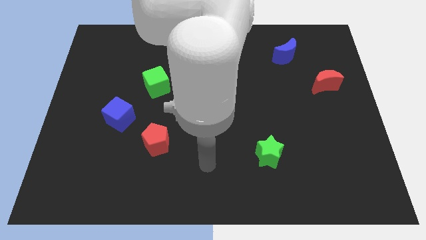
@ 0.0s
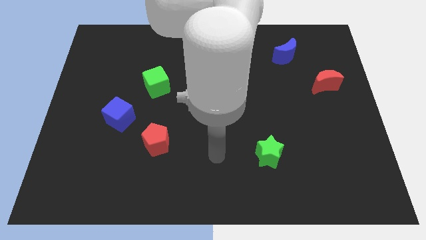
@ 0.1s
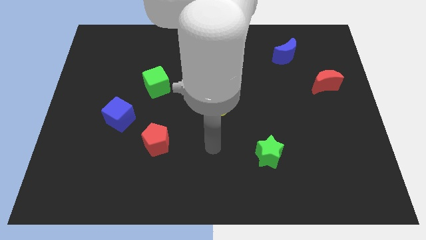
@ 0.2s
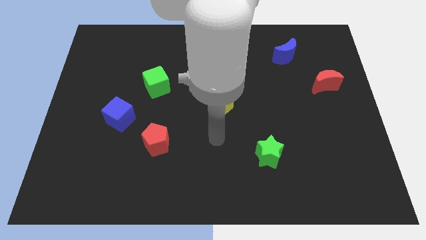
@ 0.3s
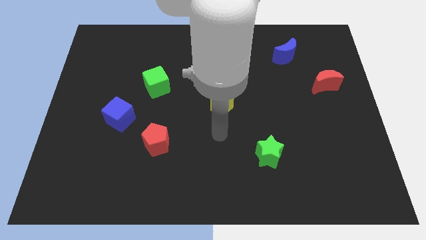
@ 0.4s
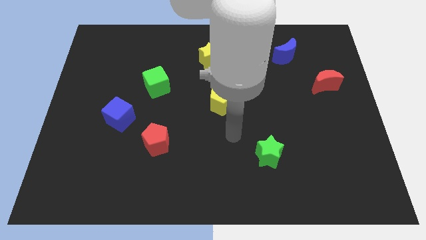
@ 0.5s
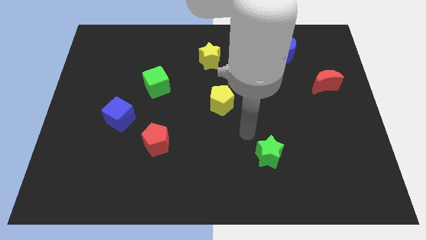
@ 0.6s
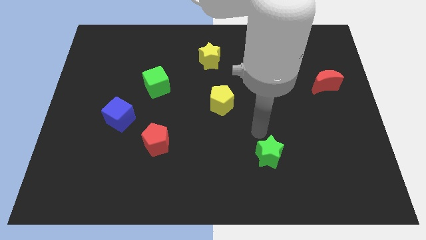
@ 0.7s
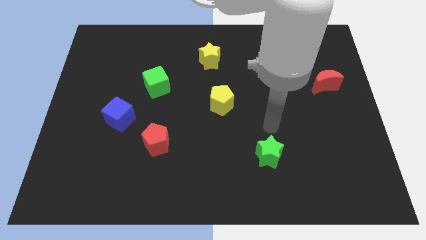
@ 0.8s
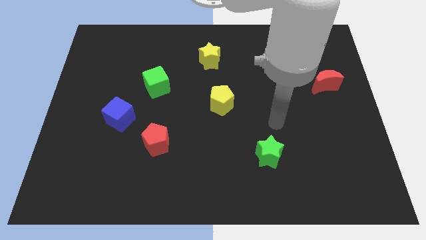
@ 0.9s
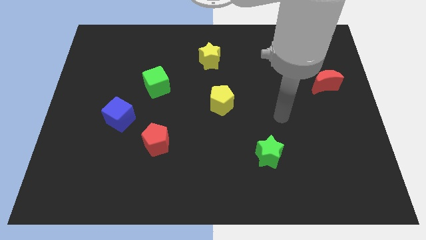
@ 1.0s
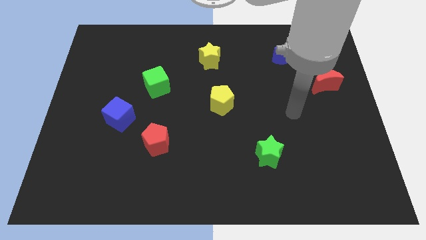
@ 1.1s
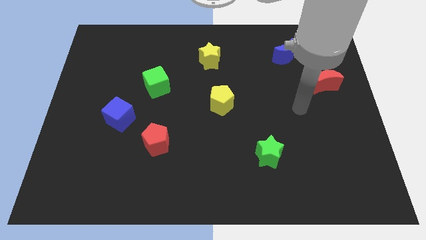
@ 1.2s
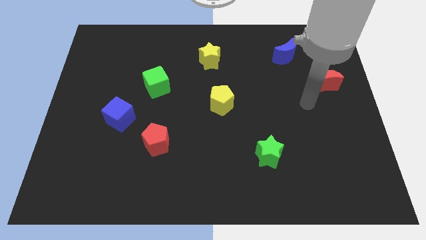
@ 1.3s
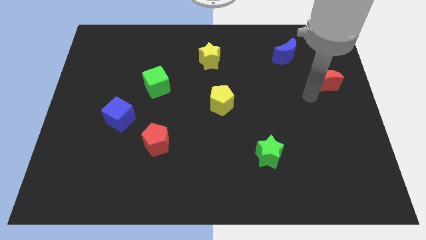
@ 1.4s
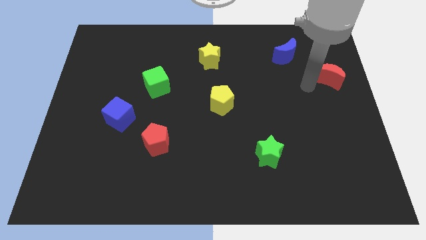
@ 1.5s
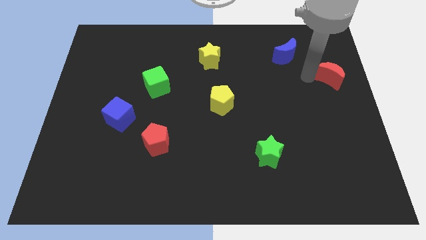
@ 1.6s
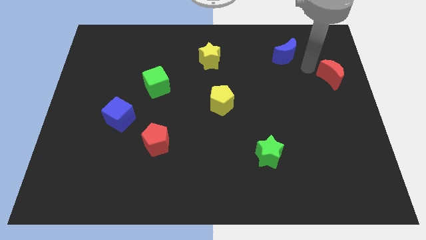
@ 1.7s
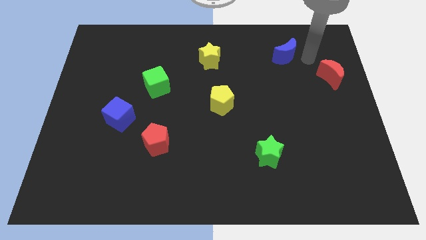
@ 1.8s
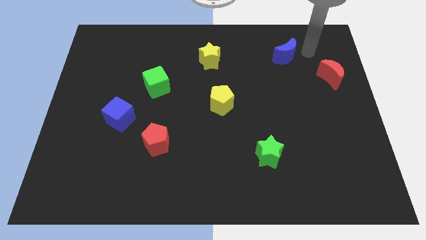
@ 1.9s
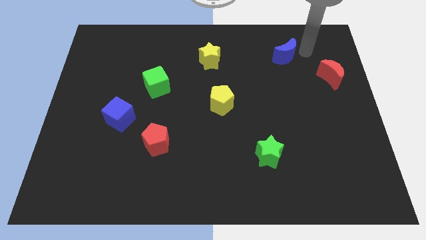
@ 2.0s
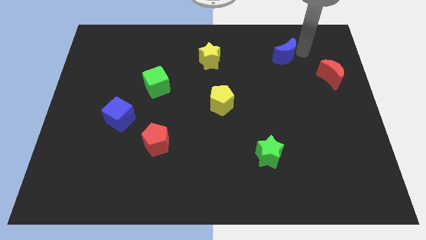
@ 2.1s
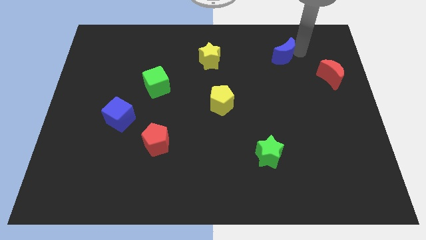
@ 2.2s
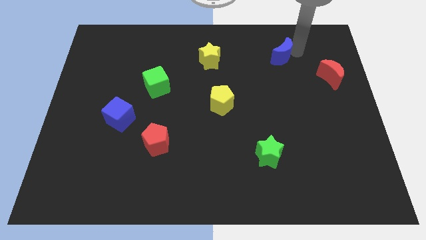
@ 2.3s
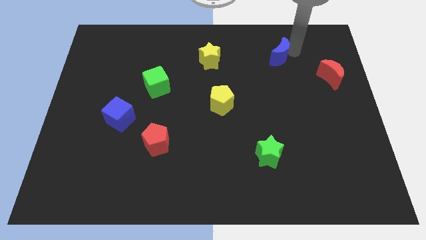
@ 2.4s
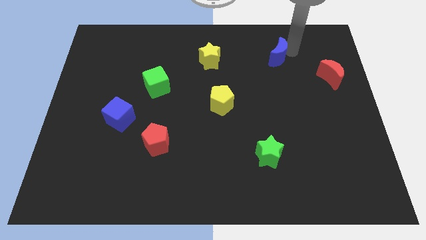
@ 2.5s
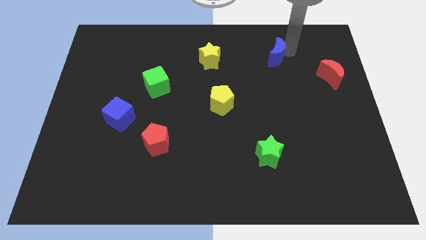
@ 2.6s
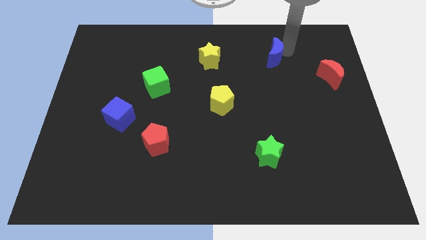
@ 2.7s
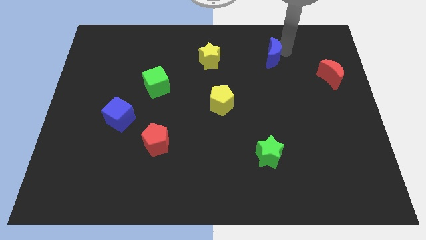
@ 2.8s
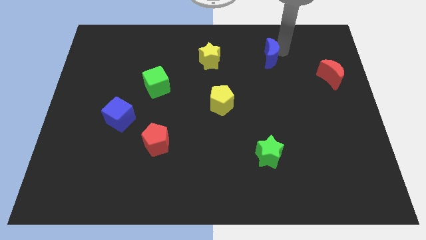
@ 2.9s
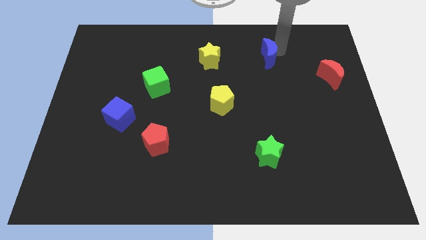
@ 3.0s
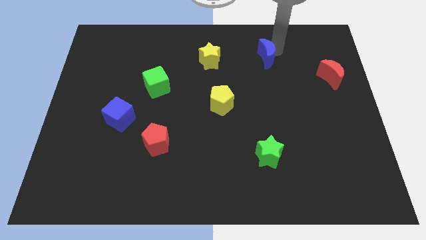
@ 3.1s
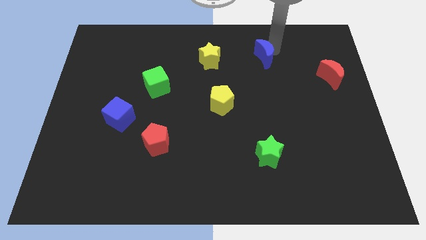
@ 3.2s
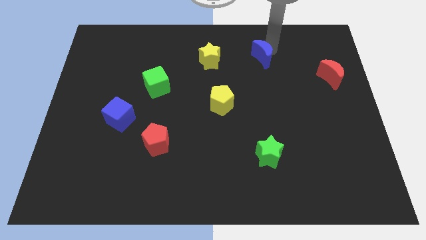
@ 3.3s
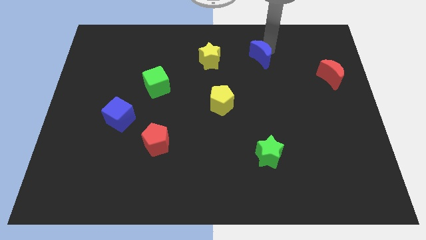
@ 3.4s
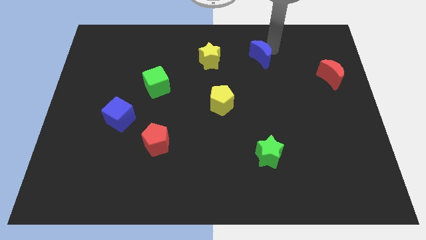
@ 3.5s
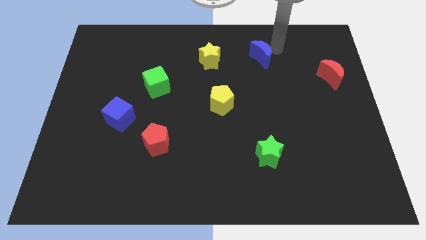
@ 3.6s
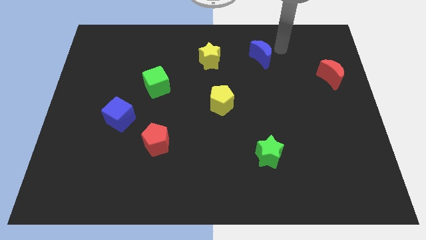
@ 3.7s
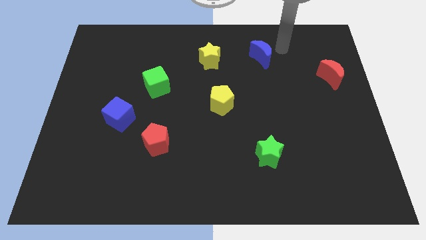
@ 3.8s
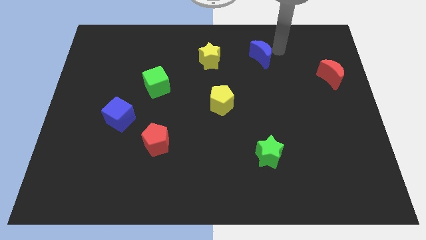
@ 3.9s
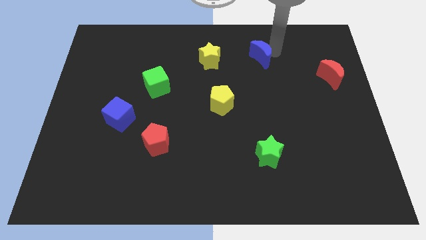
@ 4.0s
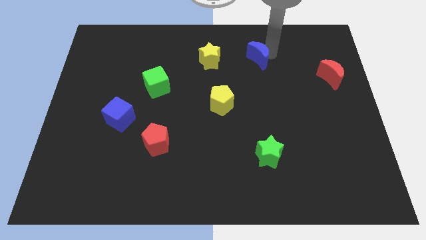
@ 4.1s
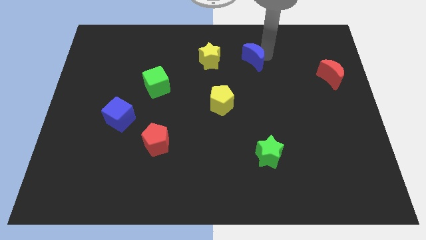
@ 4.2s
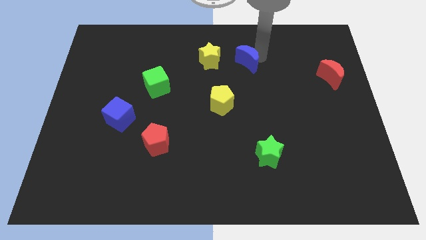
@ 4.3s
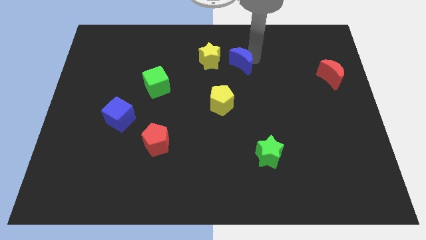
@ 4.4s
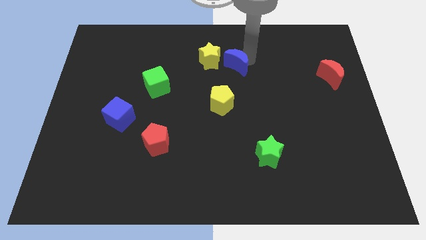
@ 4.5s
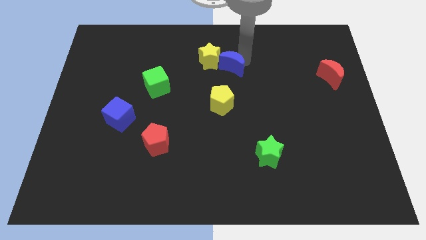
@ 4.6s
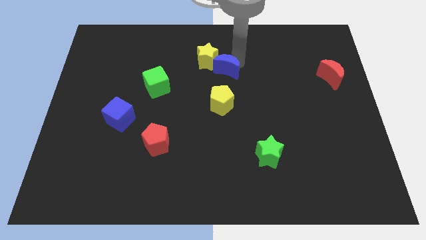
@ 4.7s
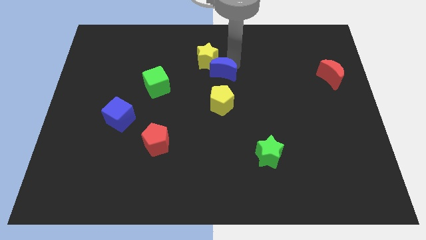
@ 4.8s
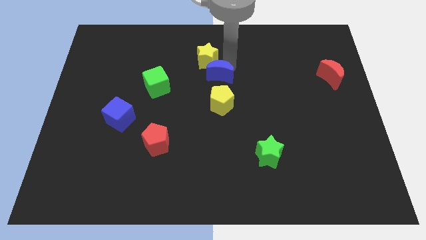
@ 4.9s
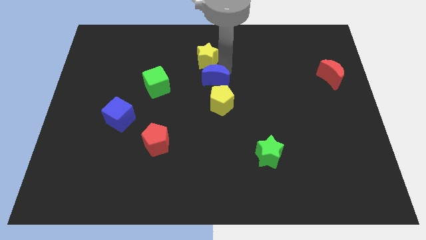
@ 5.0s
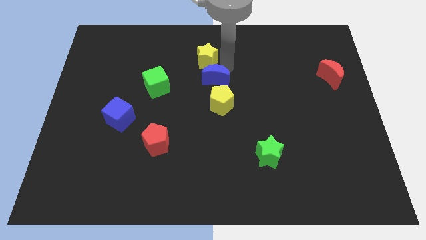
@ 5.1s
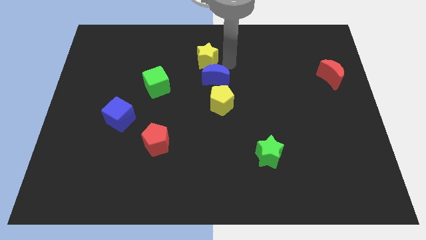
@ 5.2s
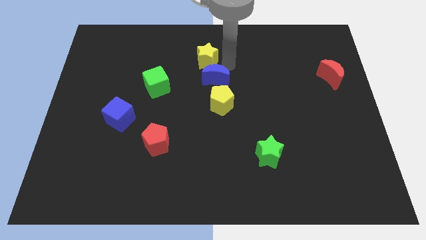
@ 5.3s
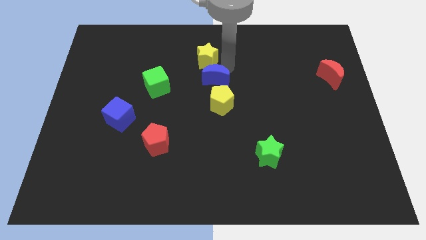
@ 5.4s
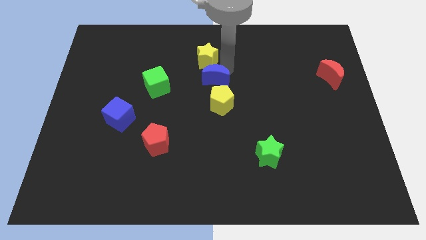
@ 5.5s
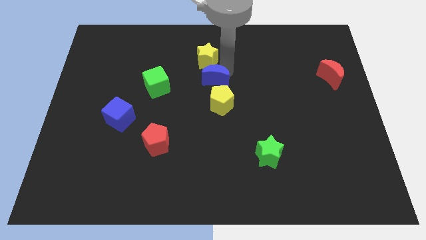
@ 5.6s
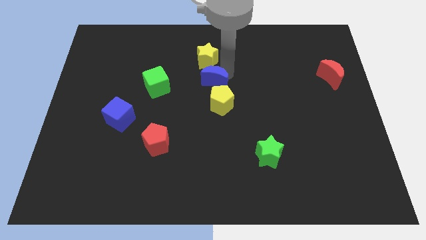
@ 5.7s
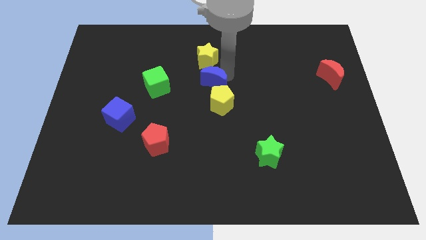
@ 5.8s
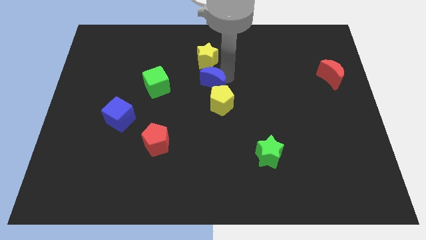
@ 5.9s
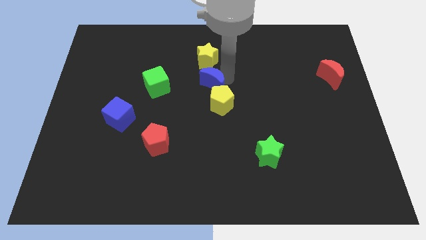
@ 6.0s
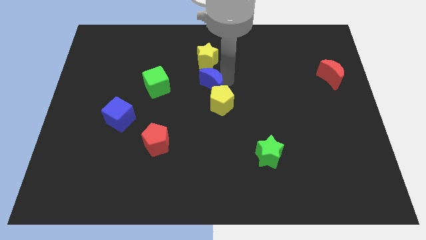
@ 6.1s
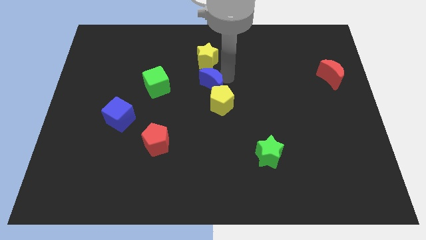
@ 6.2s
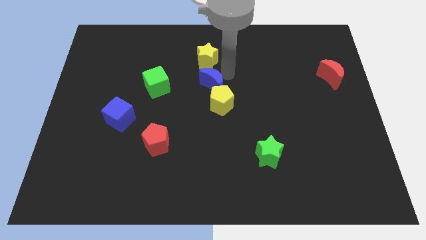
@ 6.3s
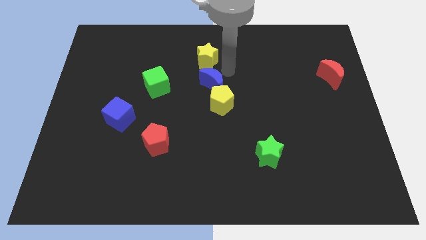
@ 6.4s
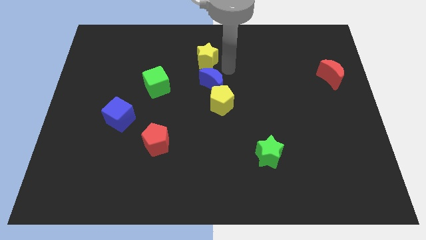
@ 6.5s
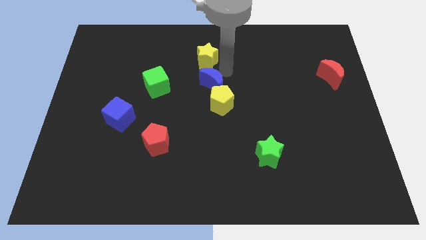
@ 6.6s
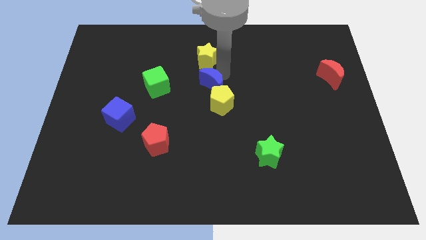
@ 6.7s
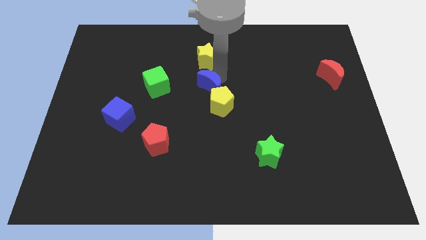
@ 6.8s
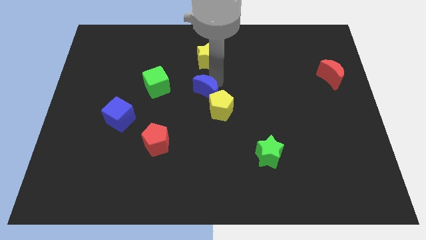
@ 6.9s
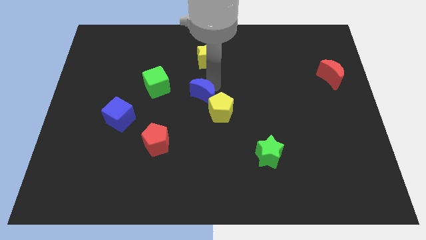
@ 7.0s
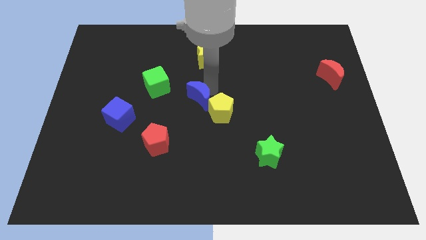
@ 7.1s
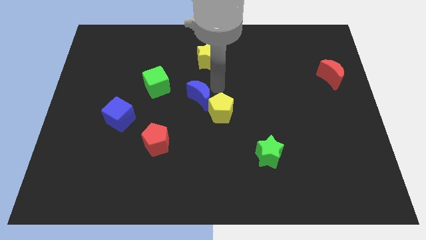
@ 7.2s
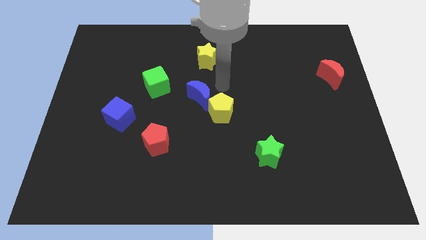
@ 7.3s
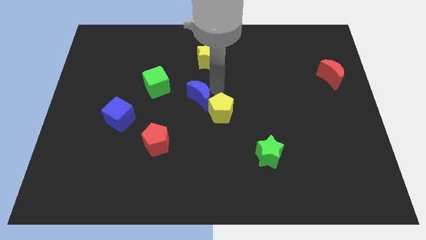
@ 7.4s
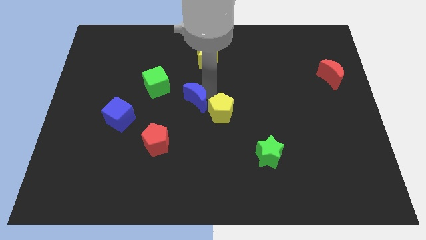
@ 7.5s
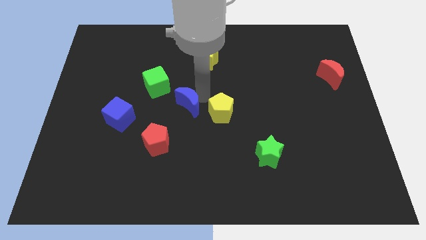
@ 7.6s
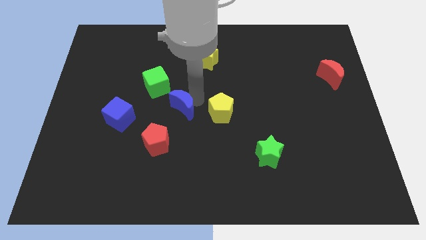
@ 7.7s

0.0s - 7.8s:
push the blue moon to the right of the blue cube

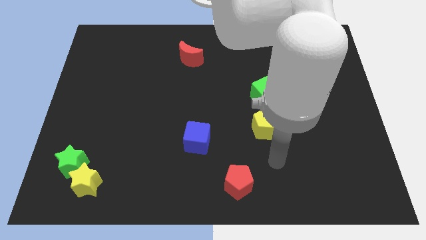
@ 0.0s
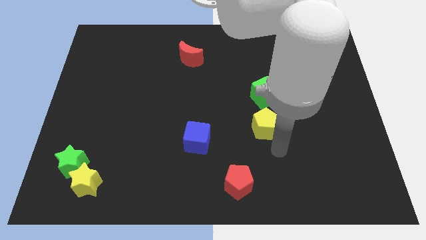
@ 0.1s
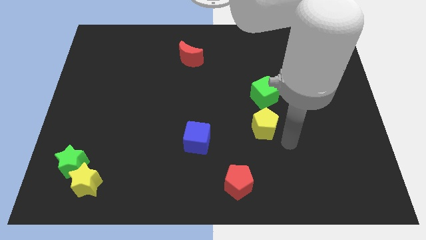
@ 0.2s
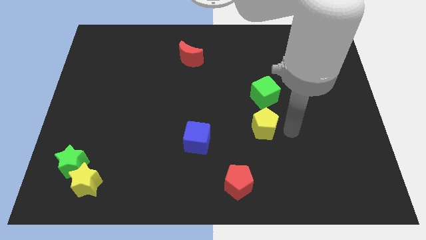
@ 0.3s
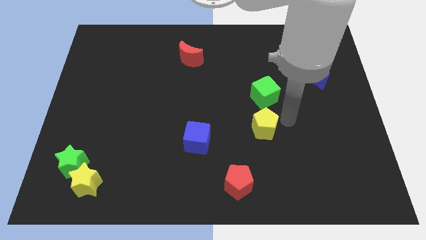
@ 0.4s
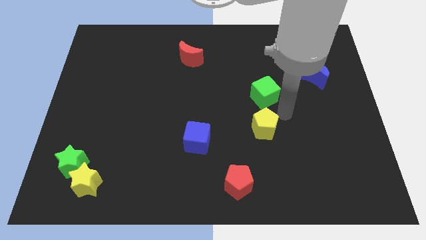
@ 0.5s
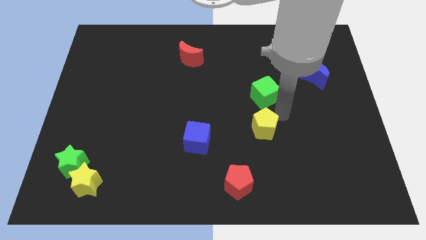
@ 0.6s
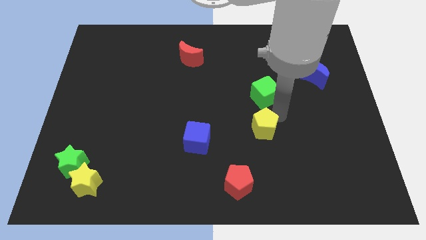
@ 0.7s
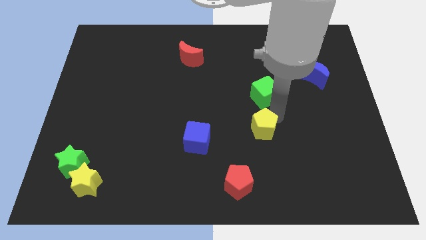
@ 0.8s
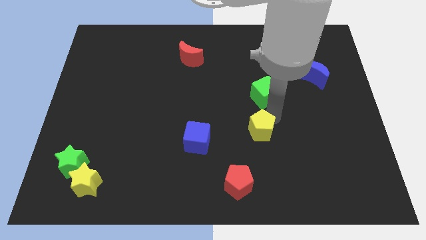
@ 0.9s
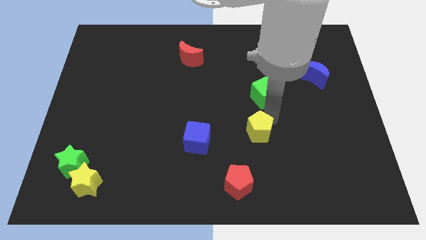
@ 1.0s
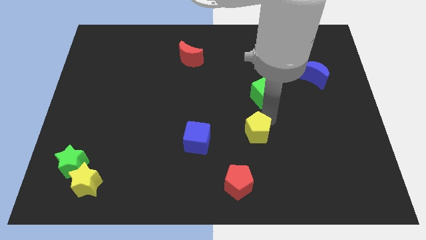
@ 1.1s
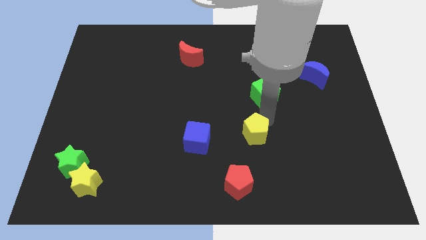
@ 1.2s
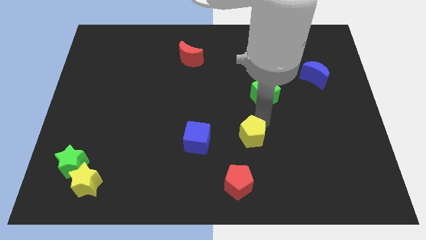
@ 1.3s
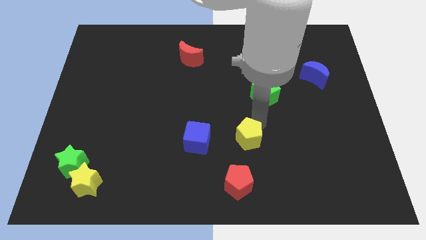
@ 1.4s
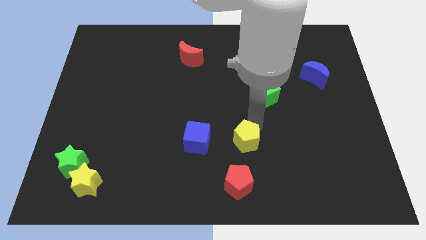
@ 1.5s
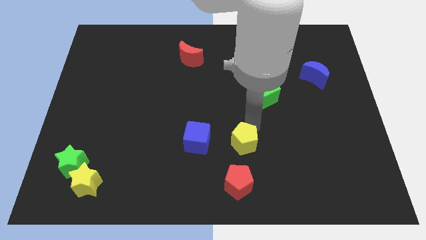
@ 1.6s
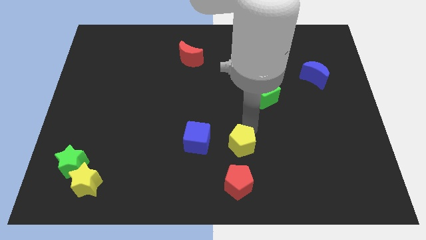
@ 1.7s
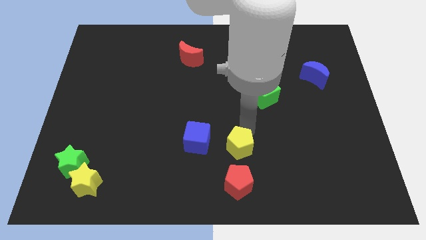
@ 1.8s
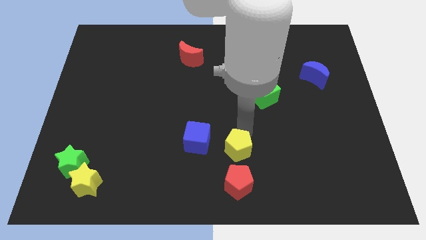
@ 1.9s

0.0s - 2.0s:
move the yellow pentagon diagonally down and to the right of the blue cube
